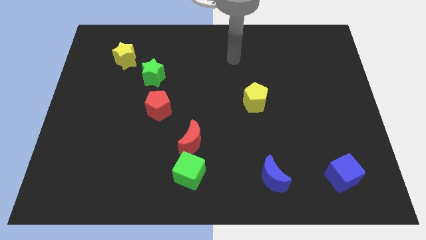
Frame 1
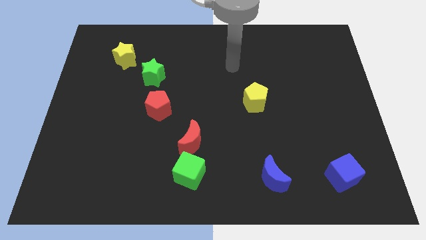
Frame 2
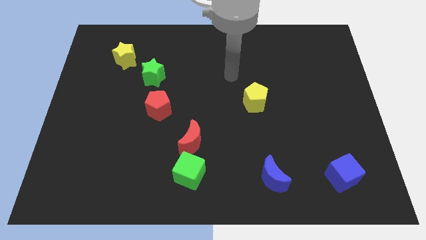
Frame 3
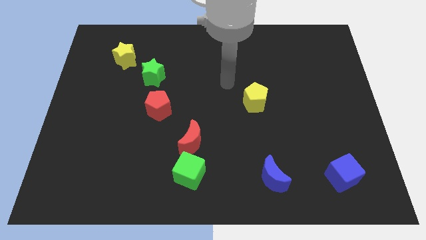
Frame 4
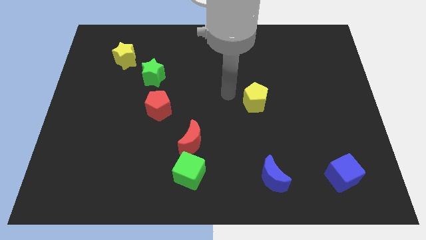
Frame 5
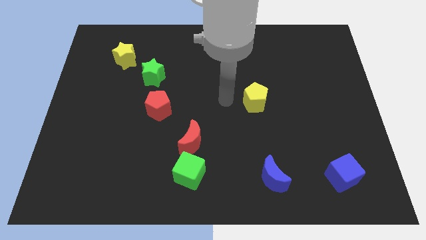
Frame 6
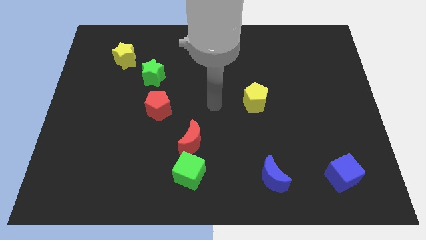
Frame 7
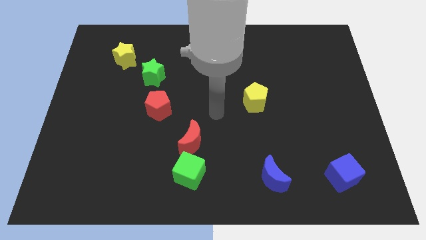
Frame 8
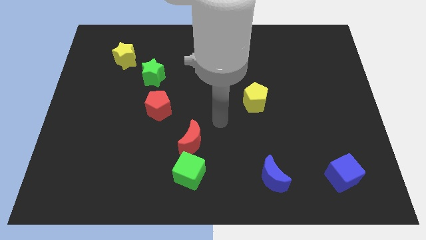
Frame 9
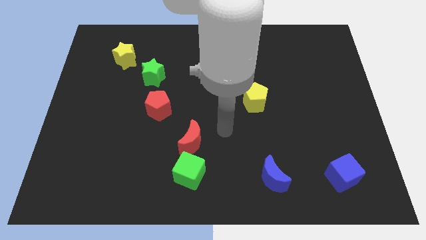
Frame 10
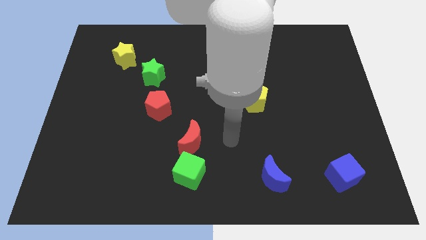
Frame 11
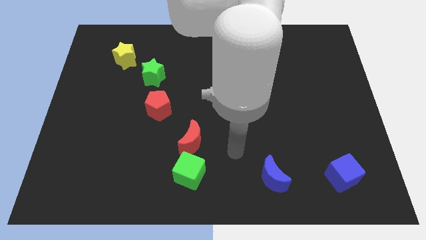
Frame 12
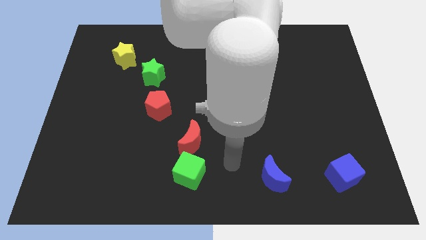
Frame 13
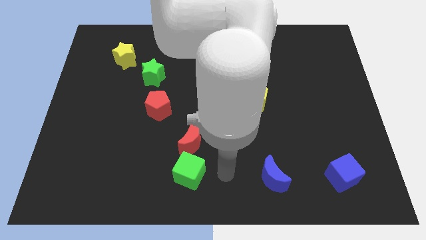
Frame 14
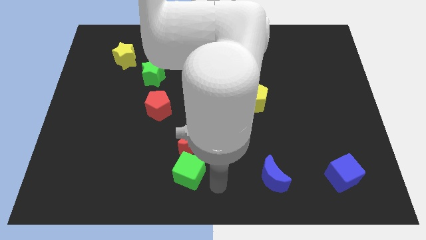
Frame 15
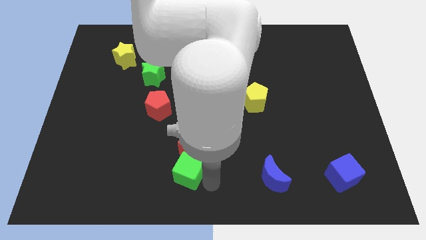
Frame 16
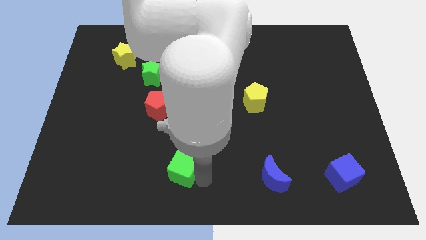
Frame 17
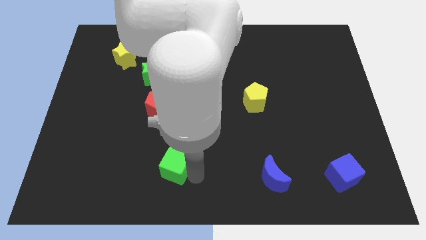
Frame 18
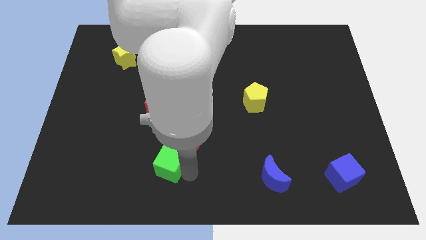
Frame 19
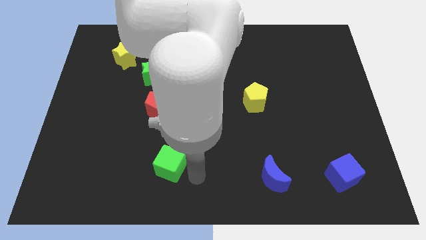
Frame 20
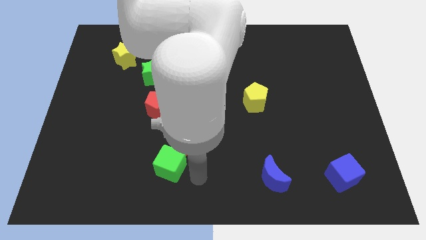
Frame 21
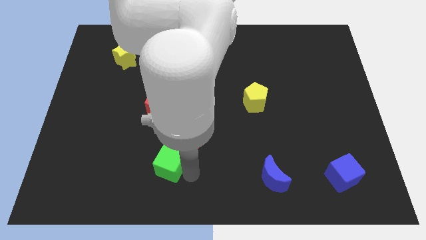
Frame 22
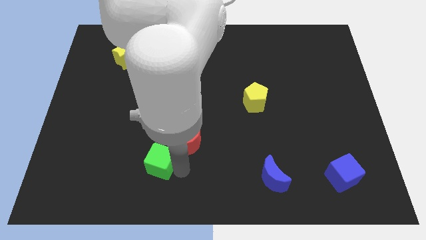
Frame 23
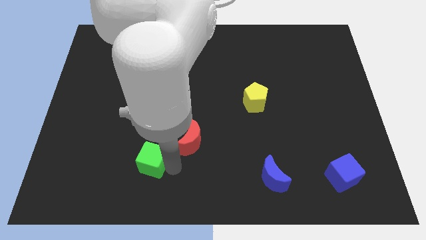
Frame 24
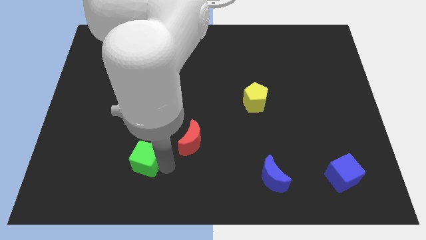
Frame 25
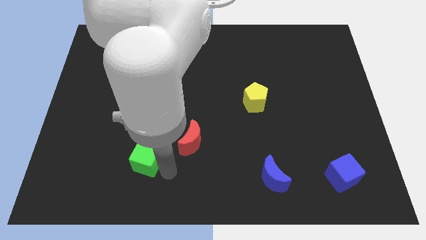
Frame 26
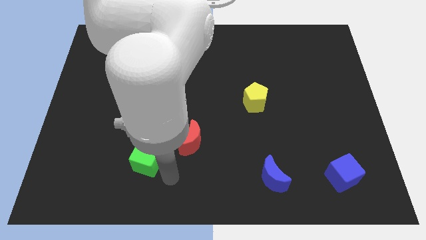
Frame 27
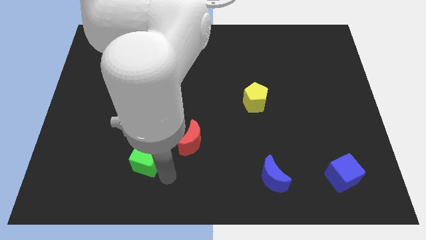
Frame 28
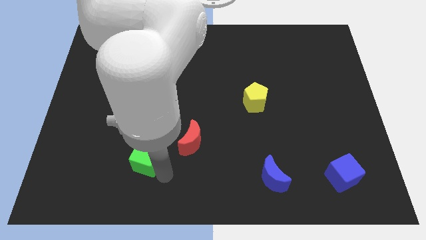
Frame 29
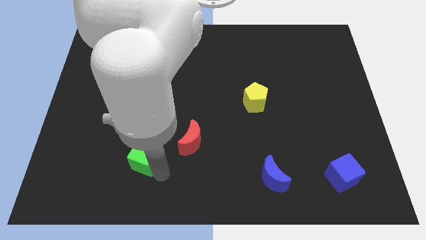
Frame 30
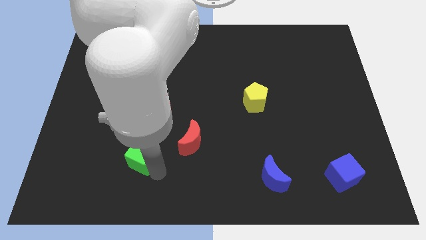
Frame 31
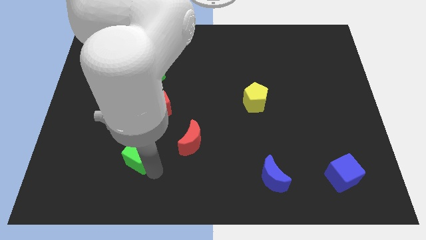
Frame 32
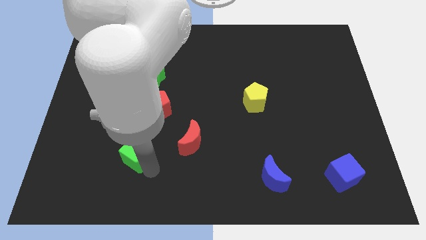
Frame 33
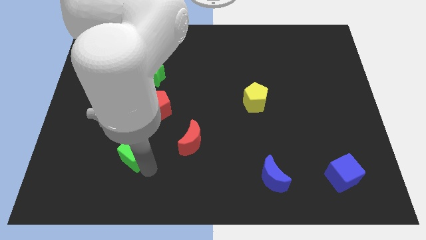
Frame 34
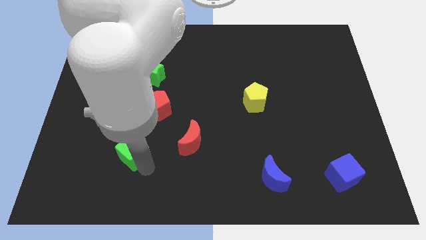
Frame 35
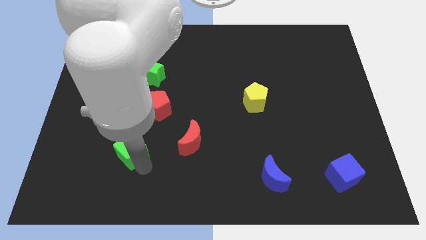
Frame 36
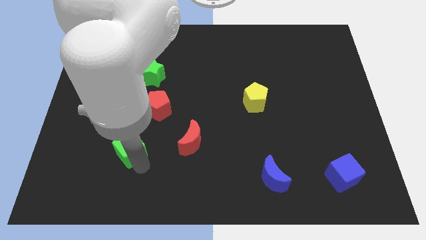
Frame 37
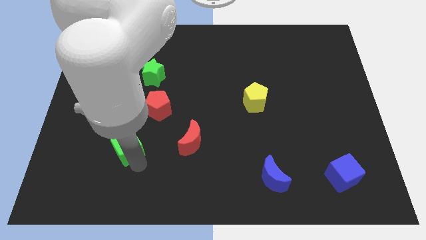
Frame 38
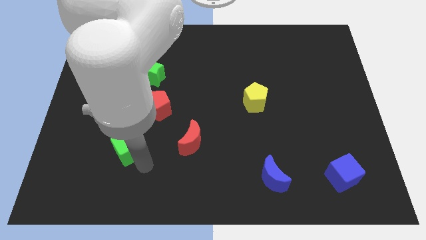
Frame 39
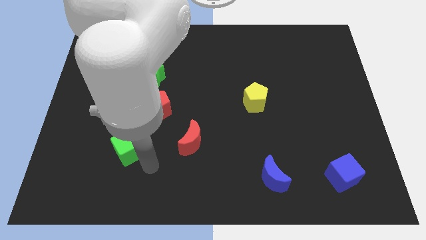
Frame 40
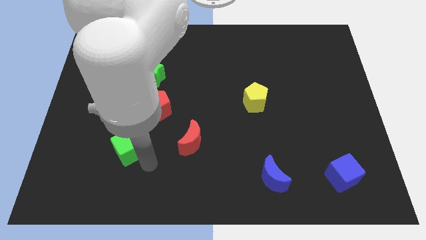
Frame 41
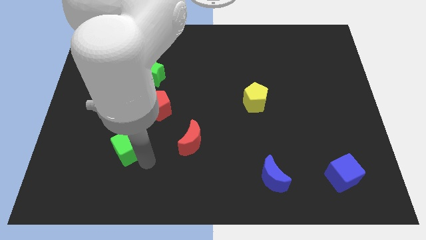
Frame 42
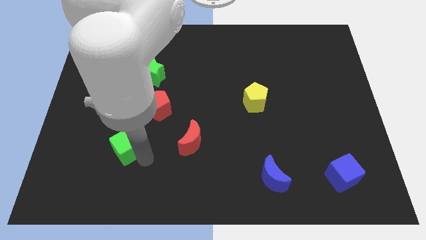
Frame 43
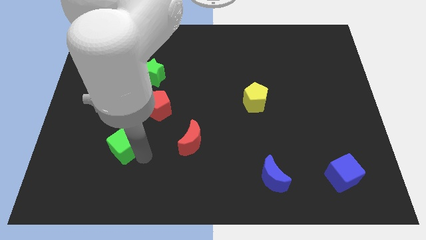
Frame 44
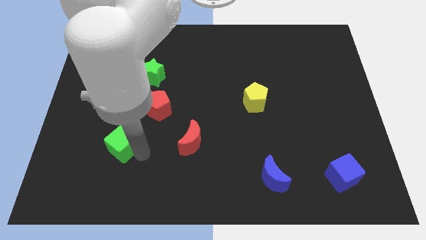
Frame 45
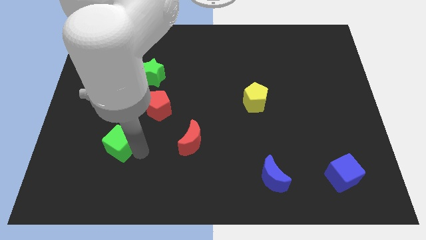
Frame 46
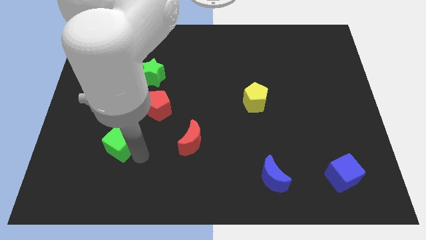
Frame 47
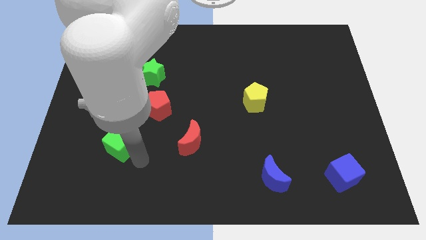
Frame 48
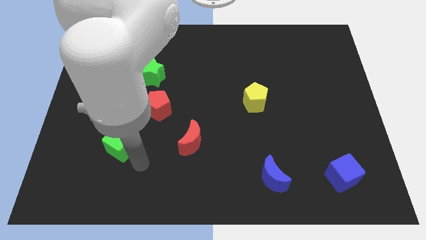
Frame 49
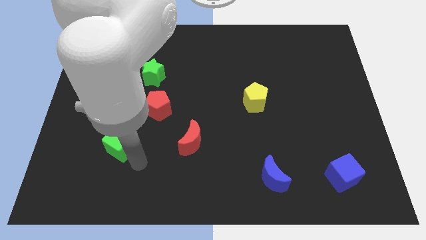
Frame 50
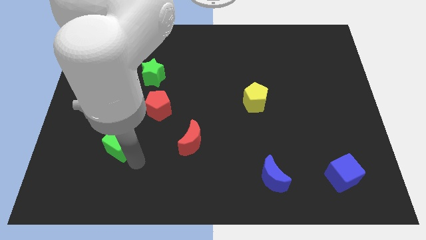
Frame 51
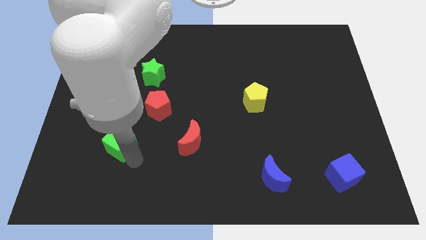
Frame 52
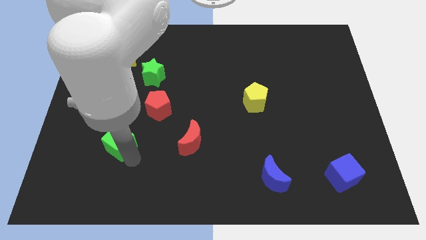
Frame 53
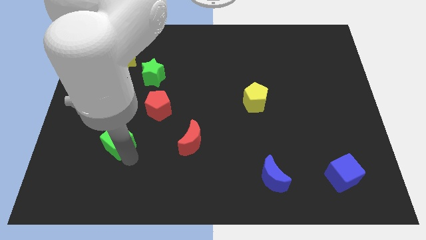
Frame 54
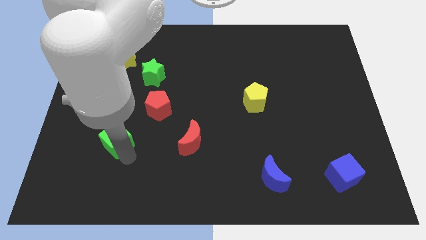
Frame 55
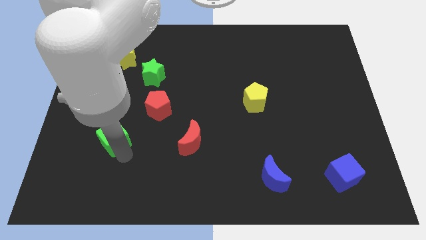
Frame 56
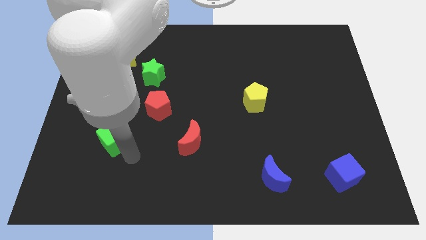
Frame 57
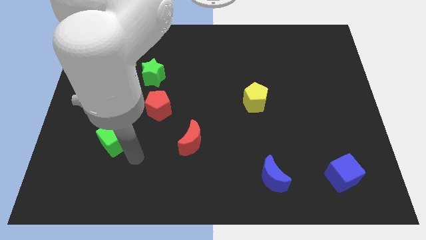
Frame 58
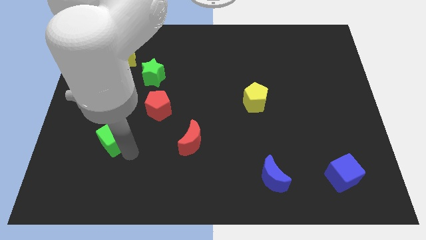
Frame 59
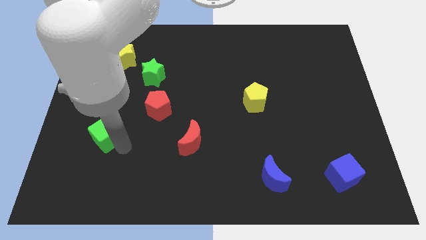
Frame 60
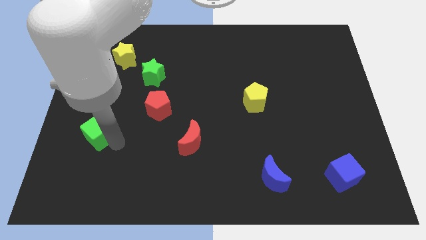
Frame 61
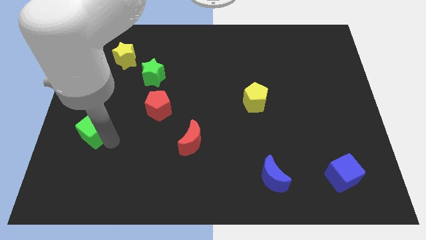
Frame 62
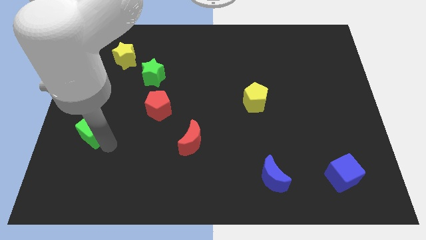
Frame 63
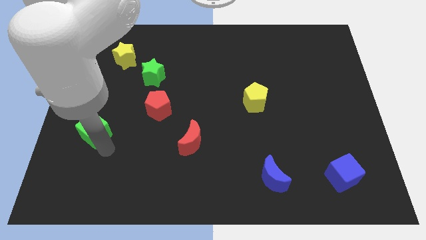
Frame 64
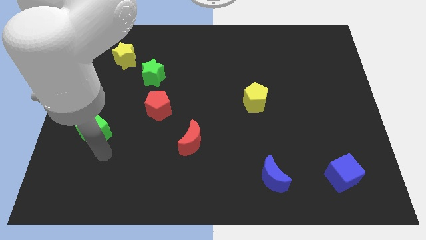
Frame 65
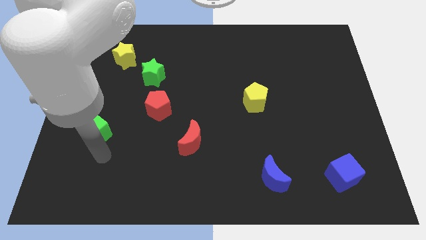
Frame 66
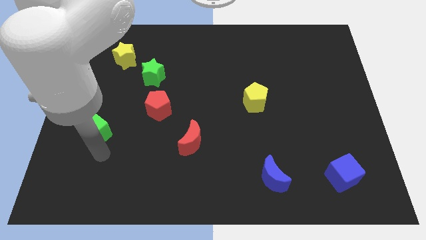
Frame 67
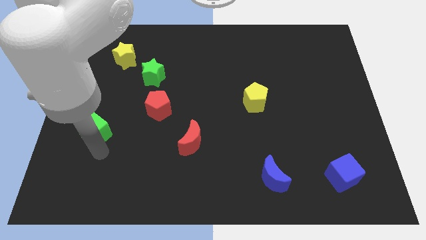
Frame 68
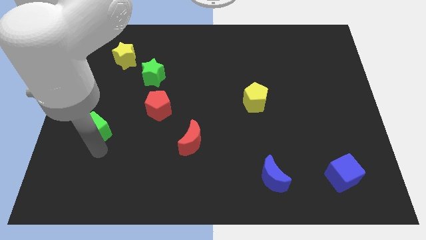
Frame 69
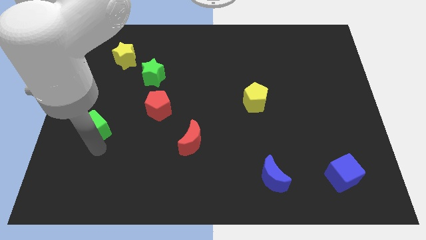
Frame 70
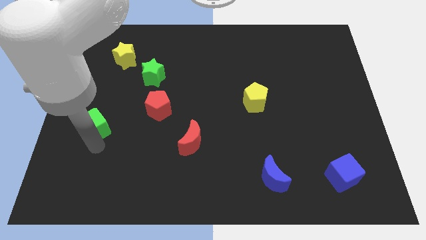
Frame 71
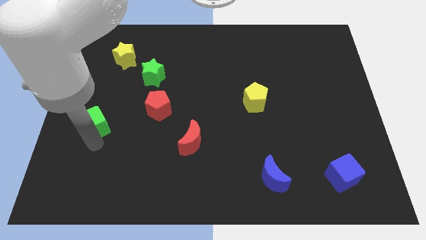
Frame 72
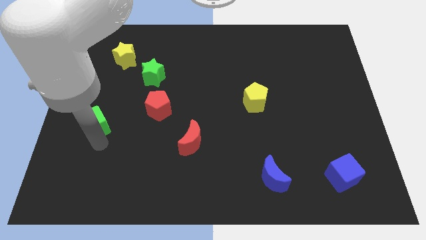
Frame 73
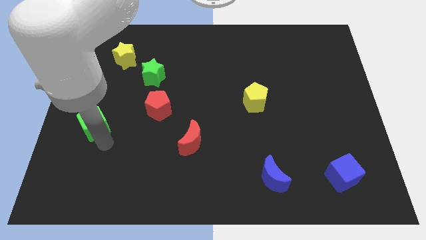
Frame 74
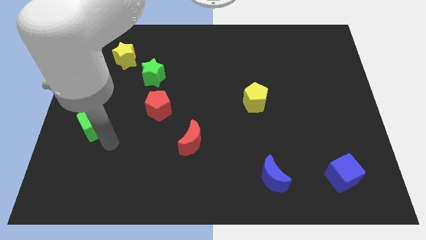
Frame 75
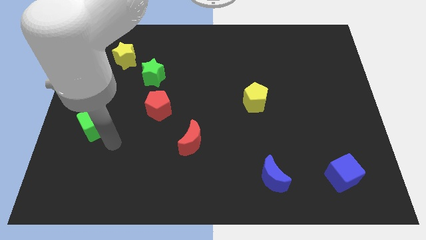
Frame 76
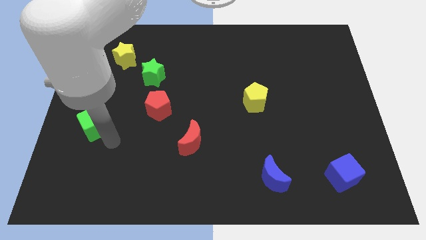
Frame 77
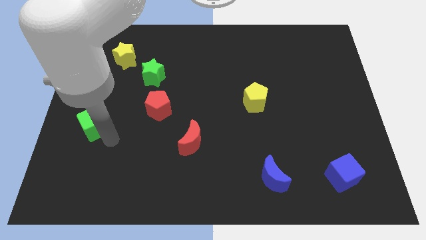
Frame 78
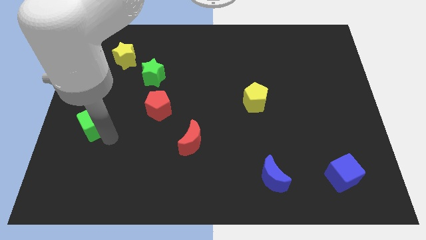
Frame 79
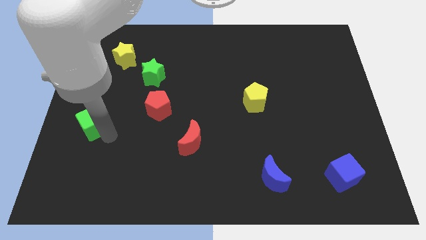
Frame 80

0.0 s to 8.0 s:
slide the green cube to the left side of the board
